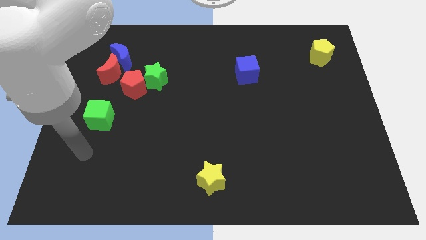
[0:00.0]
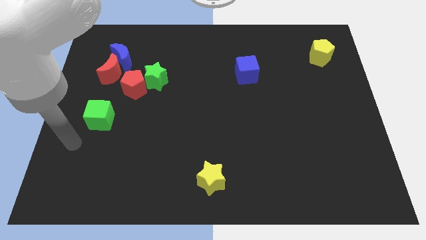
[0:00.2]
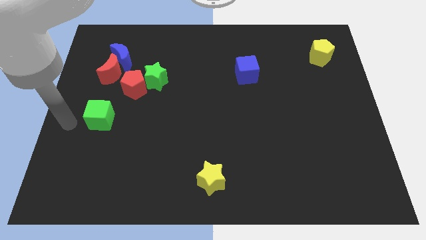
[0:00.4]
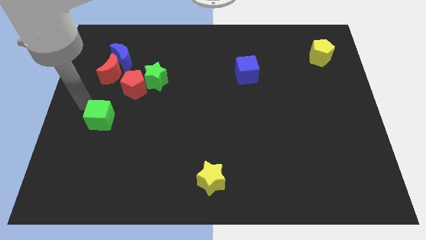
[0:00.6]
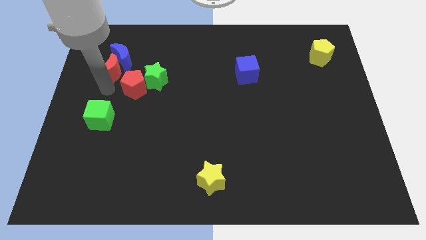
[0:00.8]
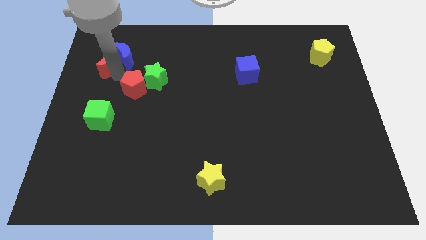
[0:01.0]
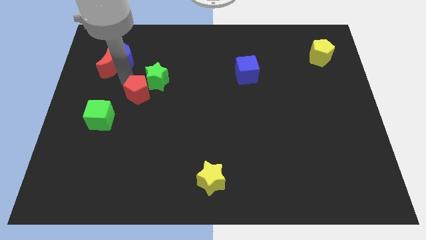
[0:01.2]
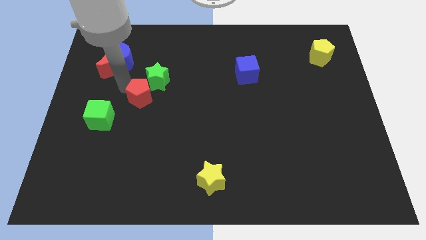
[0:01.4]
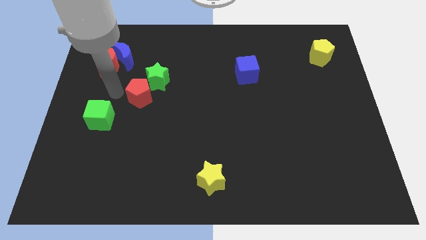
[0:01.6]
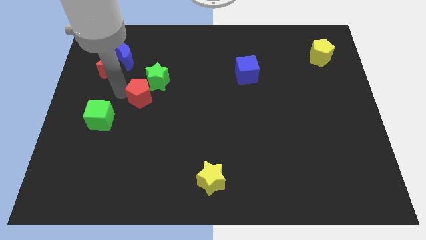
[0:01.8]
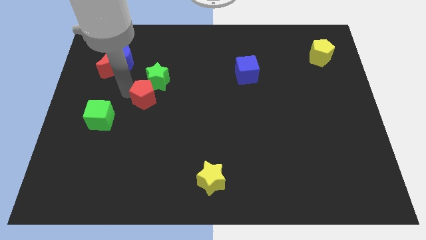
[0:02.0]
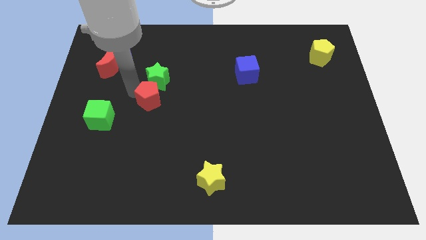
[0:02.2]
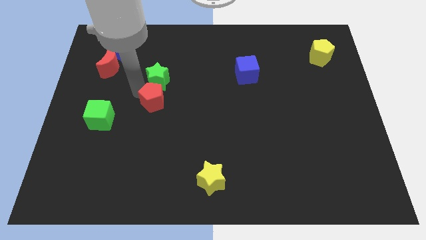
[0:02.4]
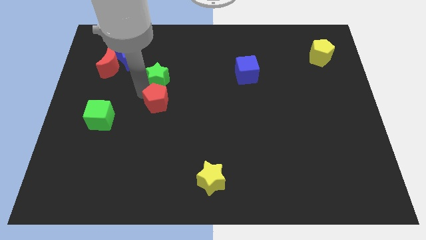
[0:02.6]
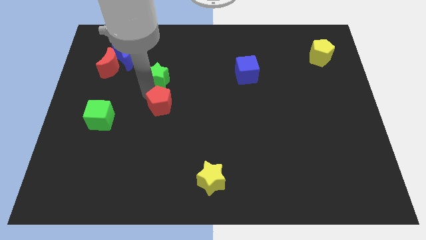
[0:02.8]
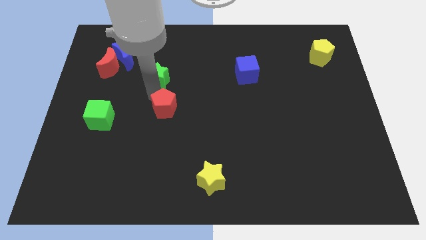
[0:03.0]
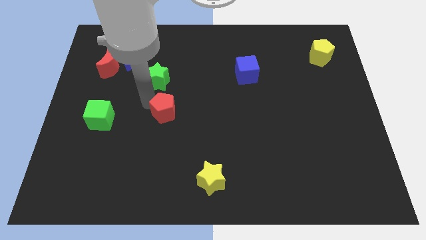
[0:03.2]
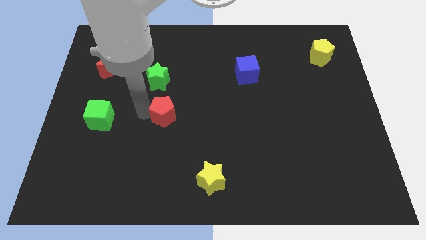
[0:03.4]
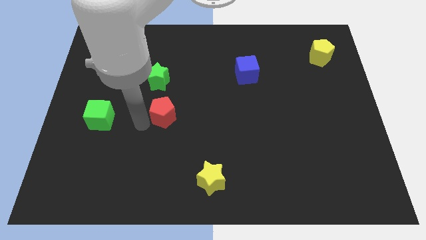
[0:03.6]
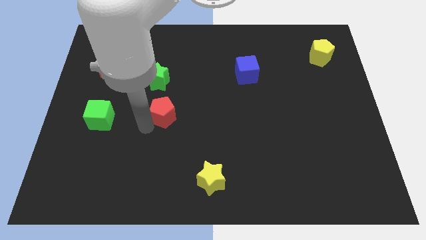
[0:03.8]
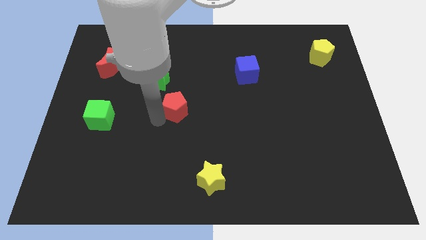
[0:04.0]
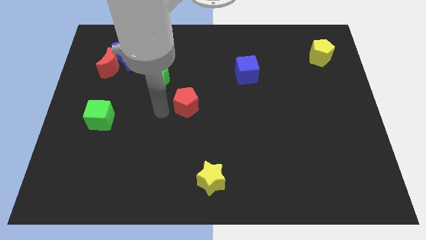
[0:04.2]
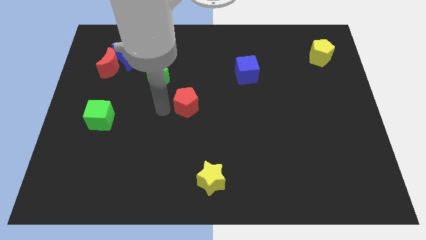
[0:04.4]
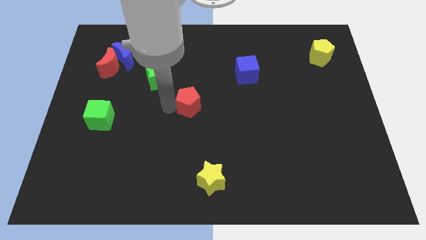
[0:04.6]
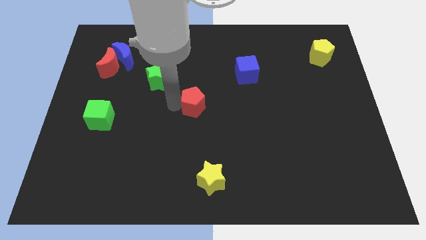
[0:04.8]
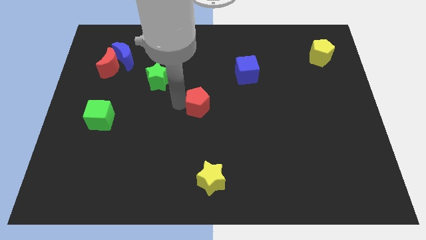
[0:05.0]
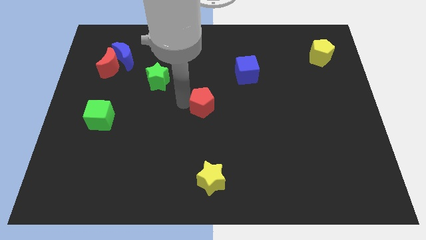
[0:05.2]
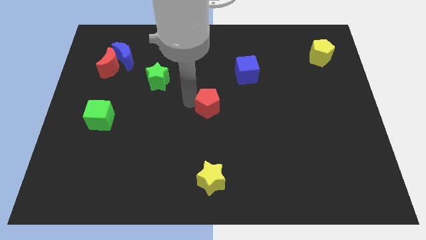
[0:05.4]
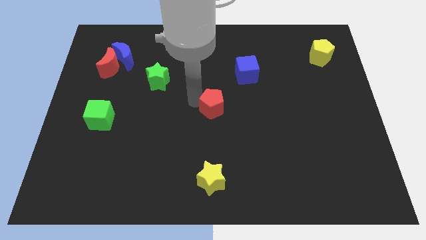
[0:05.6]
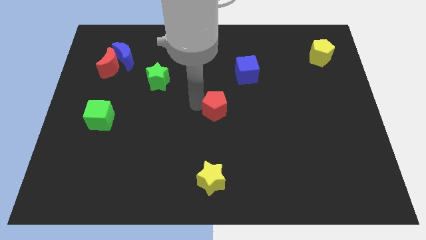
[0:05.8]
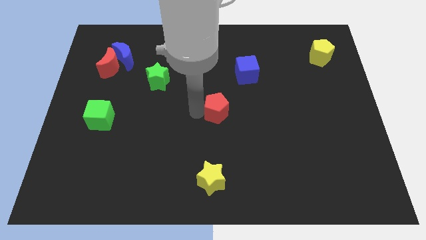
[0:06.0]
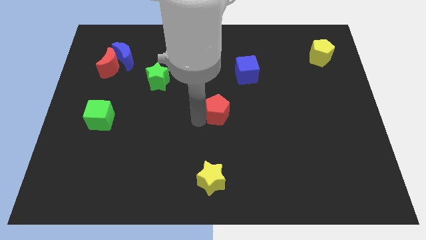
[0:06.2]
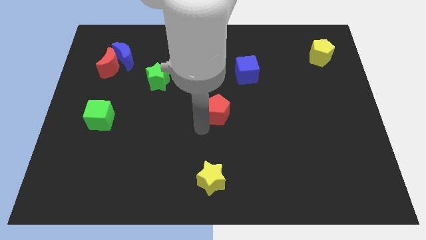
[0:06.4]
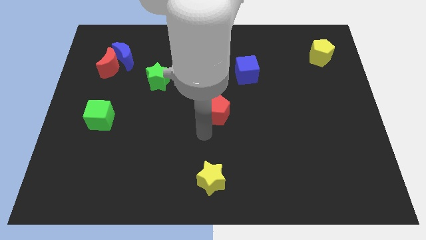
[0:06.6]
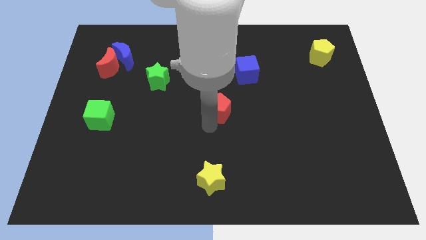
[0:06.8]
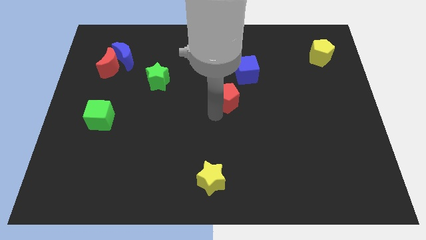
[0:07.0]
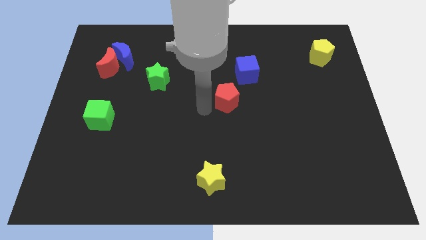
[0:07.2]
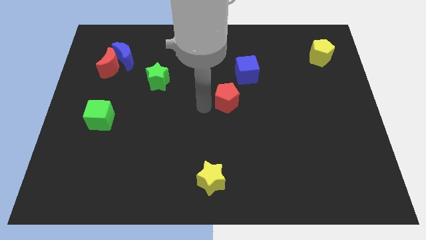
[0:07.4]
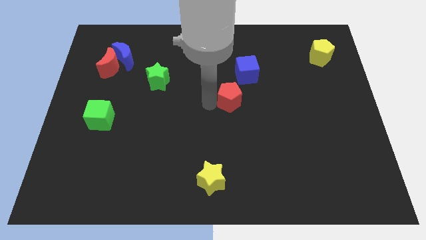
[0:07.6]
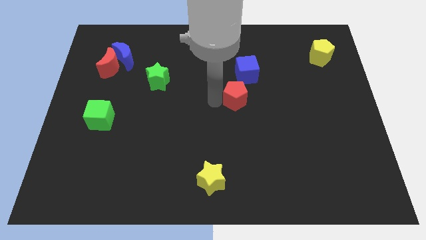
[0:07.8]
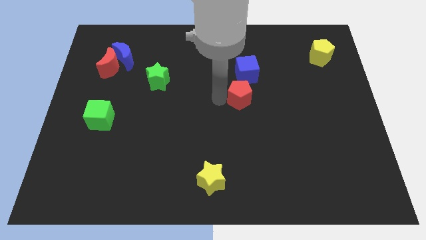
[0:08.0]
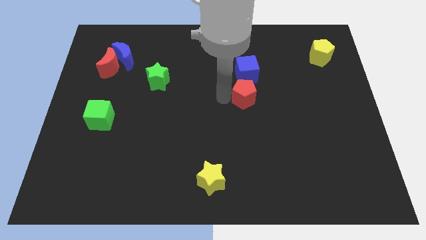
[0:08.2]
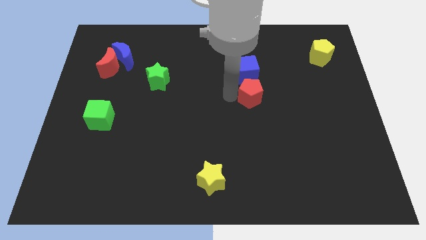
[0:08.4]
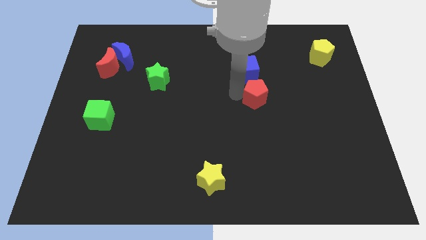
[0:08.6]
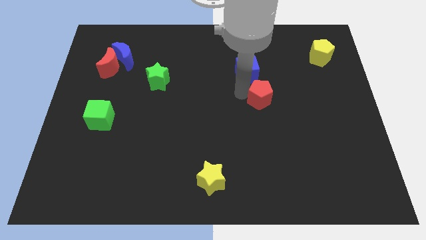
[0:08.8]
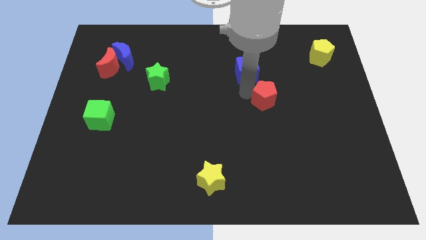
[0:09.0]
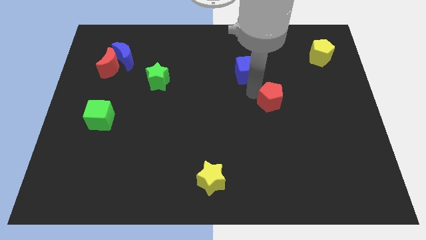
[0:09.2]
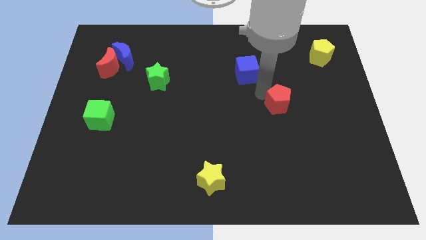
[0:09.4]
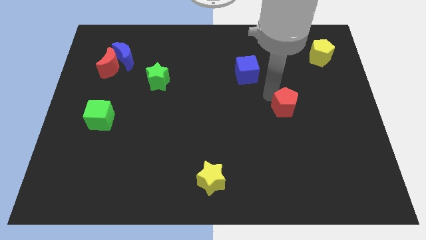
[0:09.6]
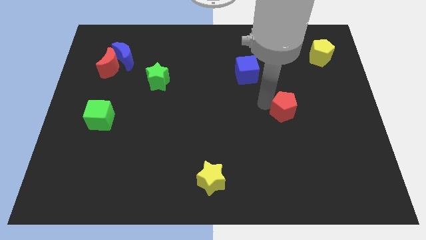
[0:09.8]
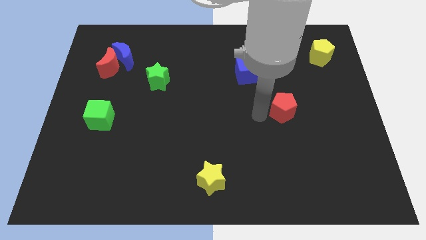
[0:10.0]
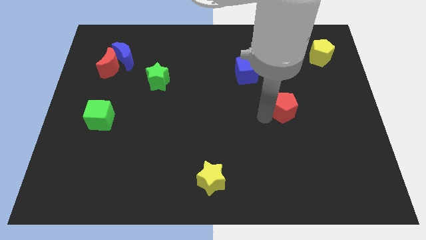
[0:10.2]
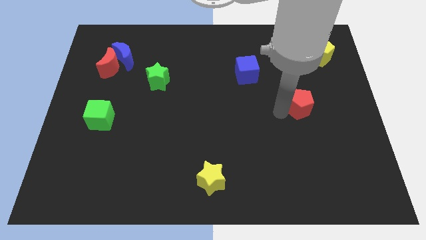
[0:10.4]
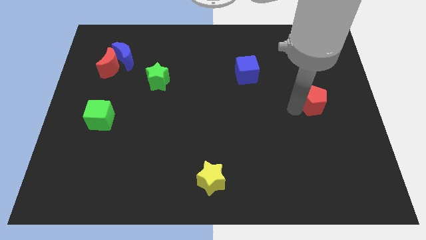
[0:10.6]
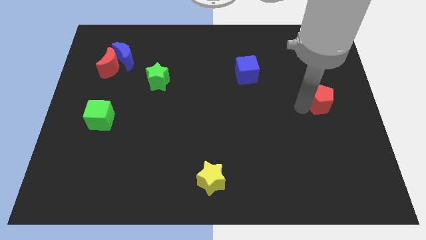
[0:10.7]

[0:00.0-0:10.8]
move the red pentagon to the right side

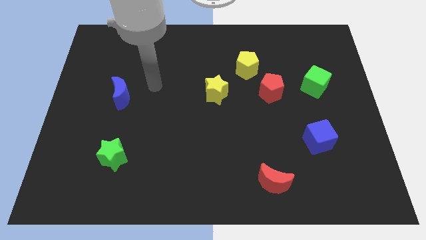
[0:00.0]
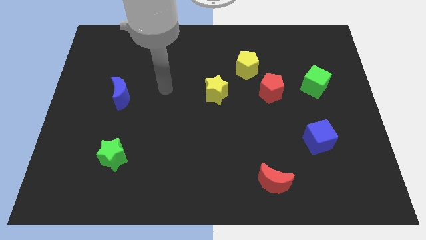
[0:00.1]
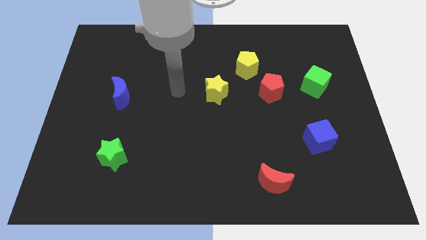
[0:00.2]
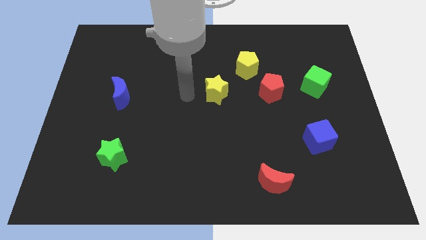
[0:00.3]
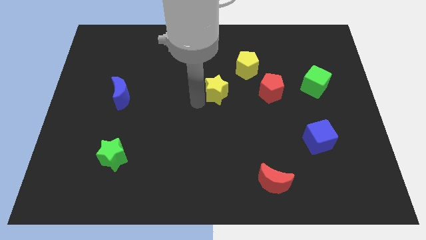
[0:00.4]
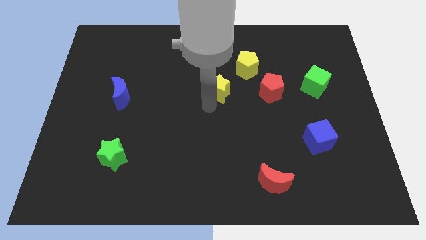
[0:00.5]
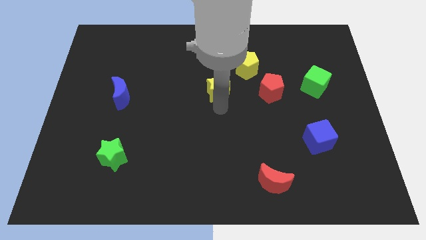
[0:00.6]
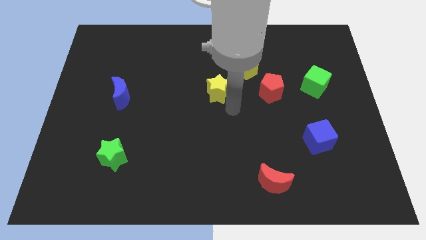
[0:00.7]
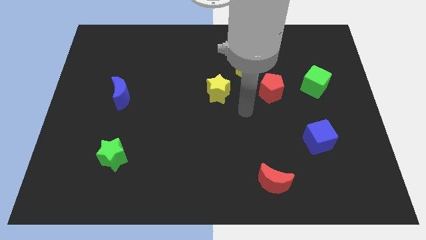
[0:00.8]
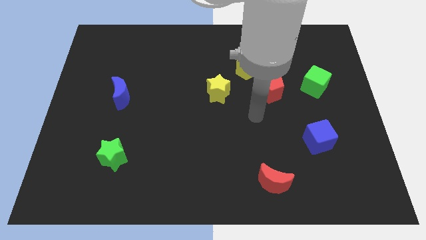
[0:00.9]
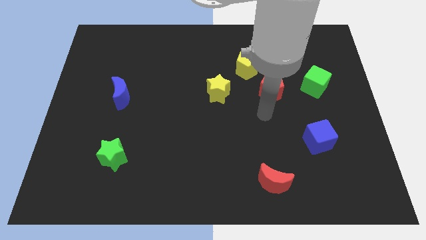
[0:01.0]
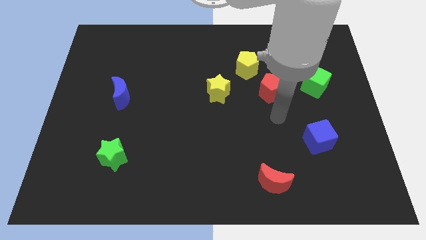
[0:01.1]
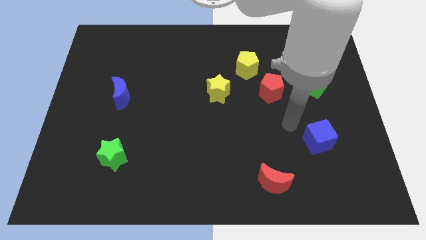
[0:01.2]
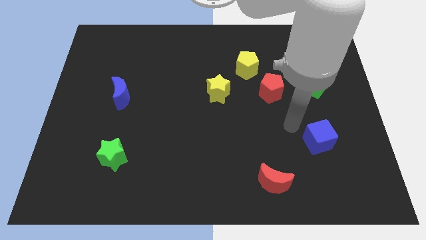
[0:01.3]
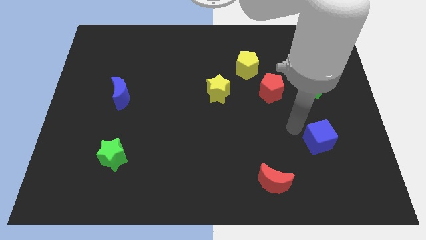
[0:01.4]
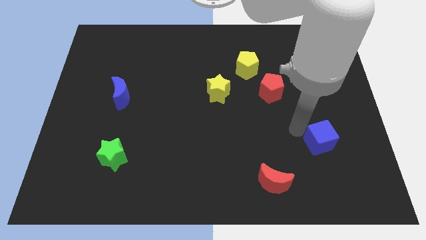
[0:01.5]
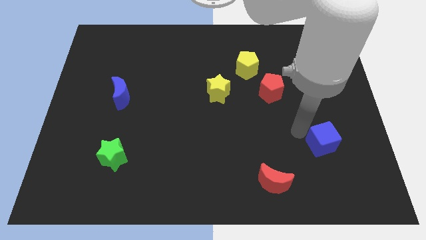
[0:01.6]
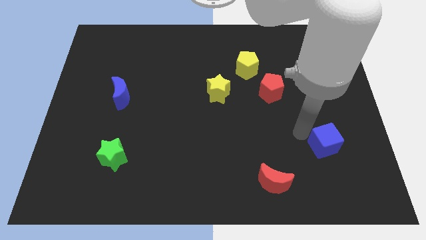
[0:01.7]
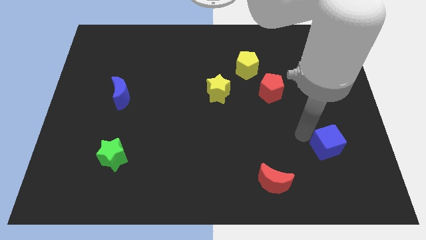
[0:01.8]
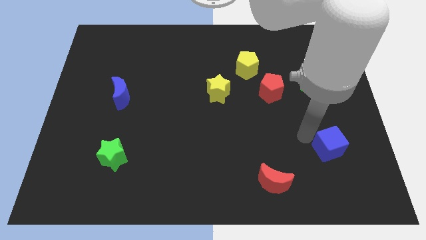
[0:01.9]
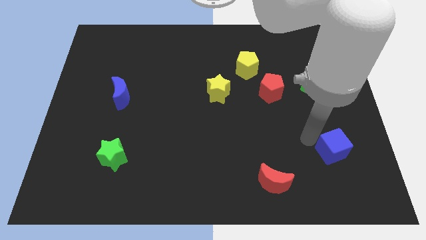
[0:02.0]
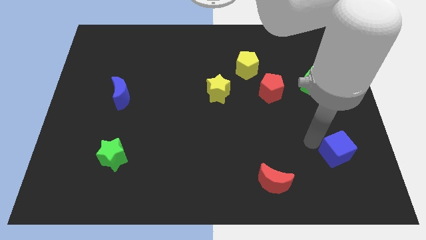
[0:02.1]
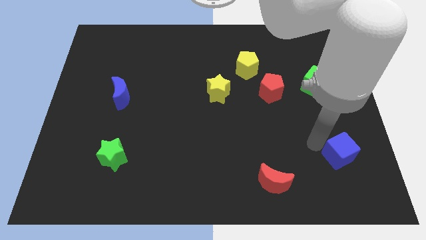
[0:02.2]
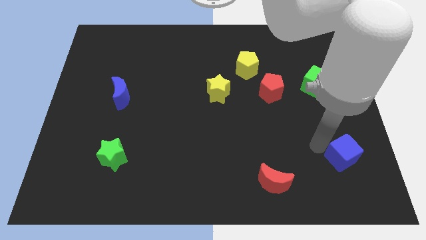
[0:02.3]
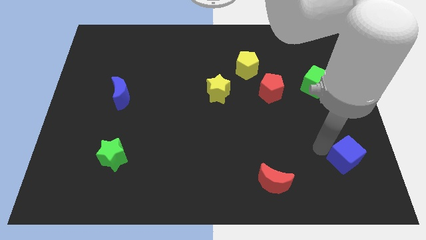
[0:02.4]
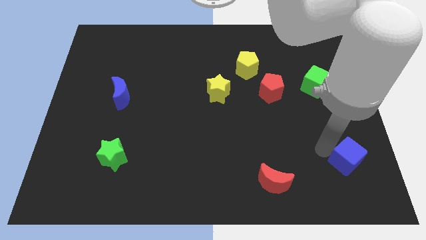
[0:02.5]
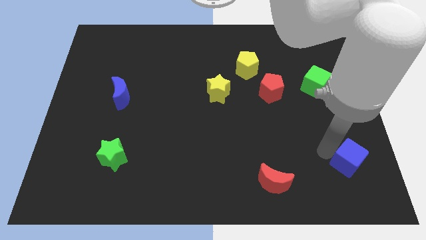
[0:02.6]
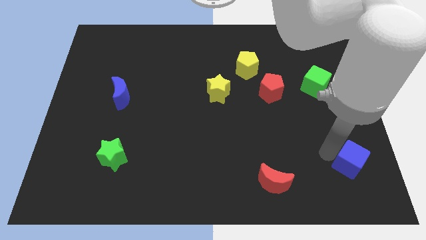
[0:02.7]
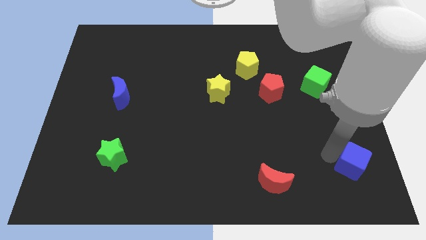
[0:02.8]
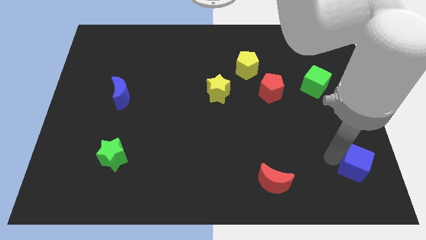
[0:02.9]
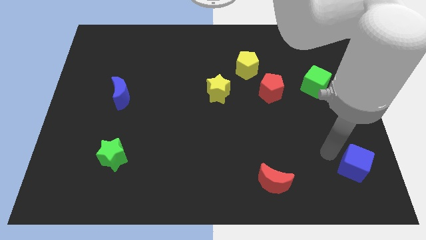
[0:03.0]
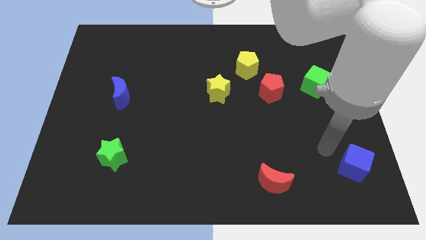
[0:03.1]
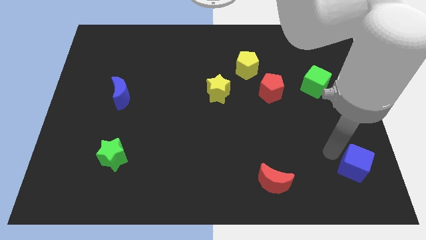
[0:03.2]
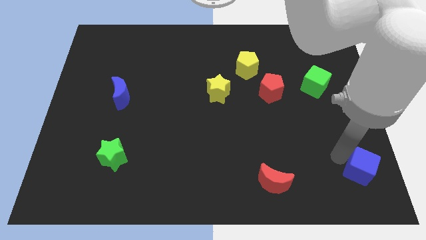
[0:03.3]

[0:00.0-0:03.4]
move the blue cube to the bottom right corner
